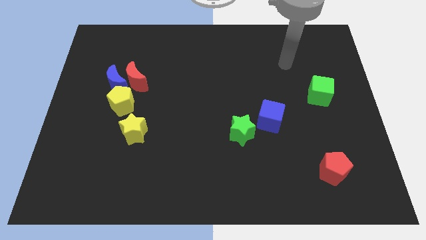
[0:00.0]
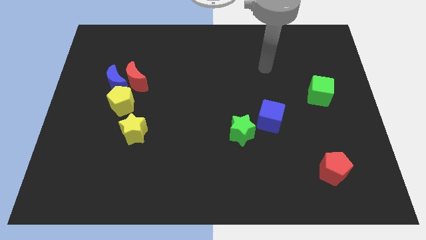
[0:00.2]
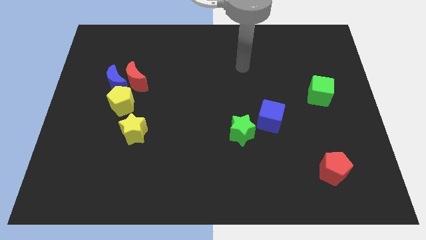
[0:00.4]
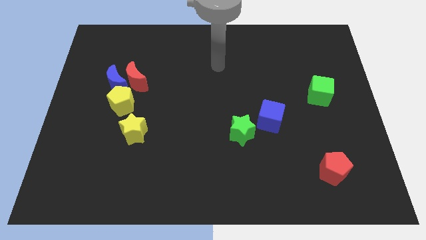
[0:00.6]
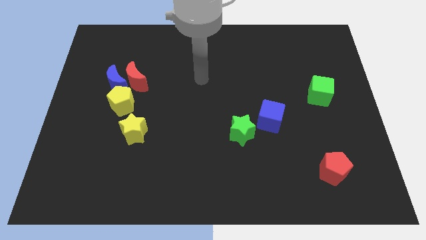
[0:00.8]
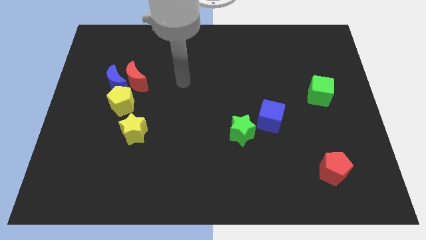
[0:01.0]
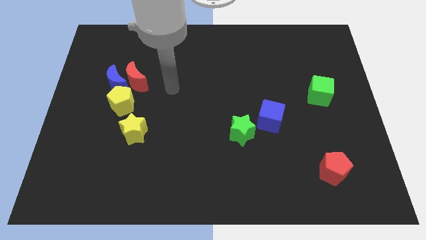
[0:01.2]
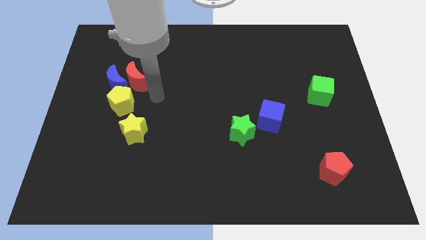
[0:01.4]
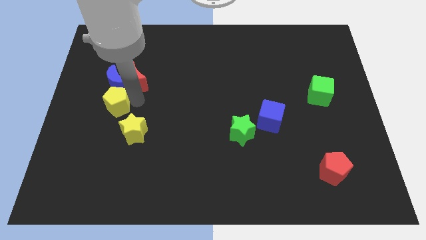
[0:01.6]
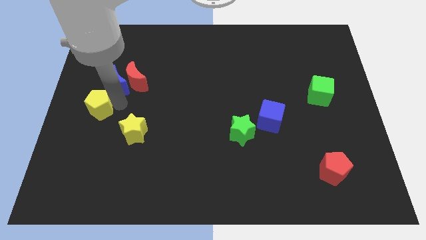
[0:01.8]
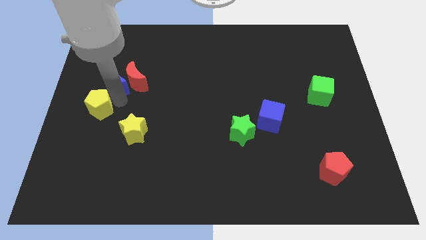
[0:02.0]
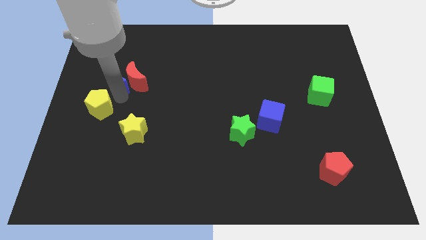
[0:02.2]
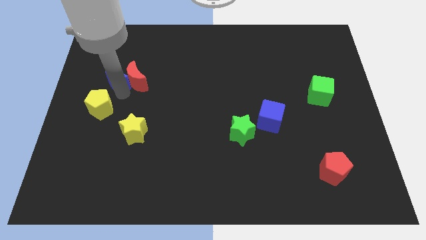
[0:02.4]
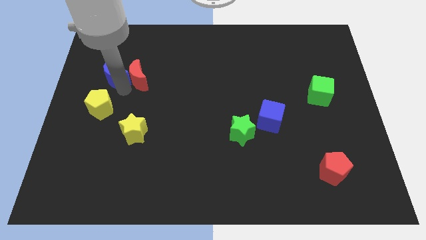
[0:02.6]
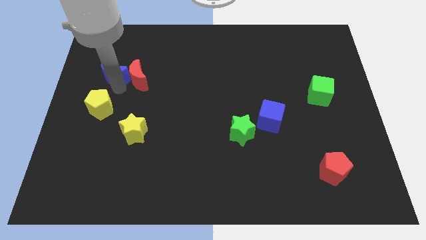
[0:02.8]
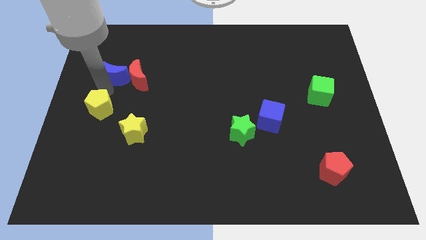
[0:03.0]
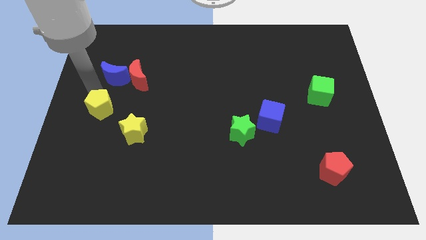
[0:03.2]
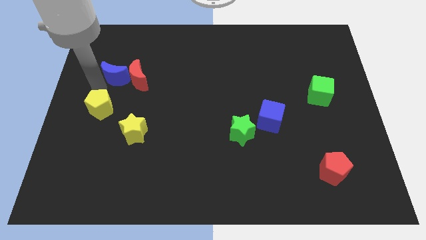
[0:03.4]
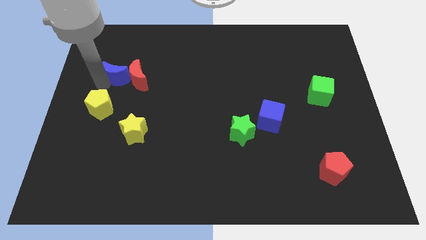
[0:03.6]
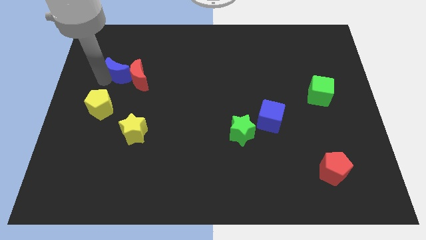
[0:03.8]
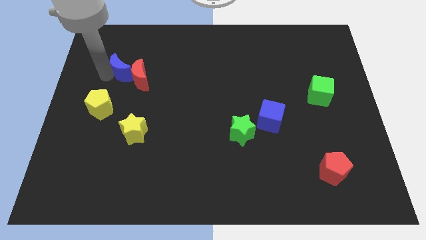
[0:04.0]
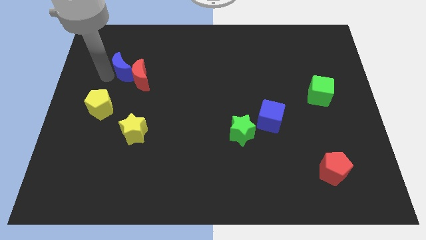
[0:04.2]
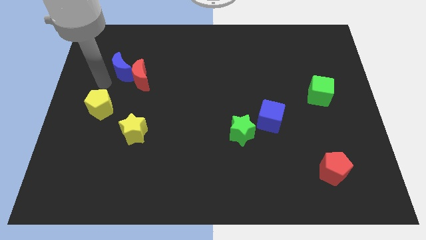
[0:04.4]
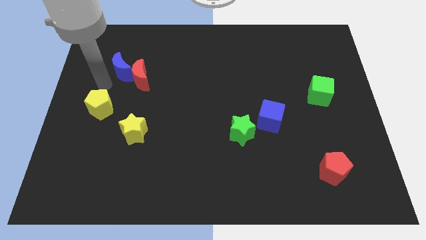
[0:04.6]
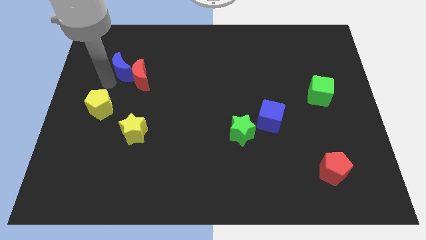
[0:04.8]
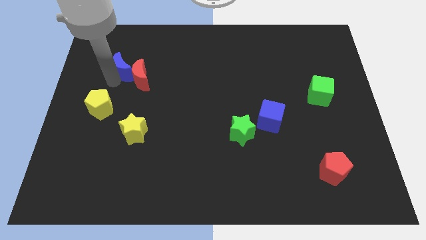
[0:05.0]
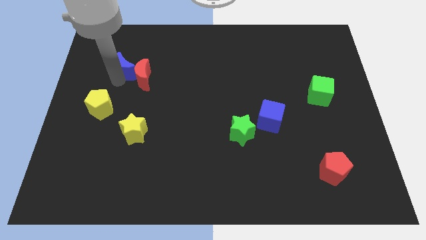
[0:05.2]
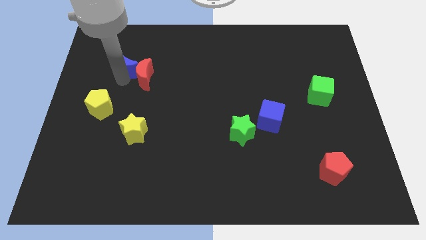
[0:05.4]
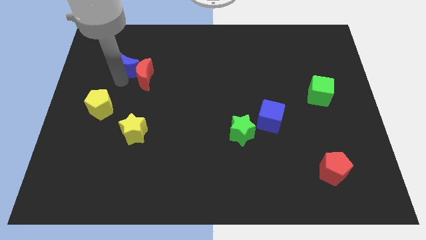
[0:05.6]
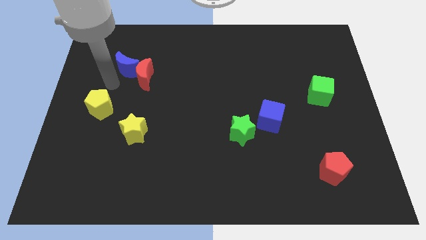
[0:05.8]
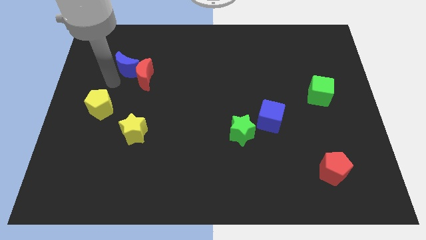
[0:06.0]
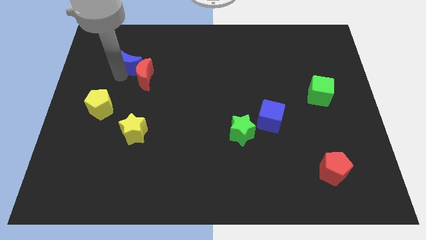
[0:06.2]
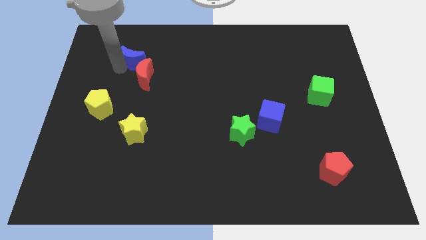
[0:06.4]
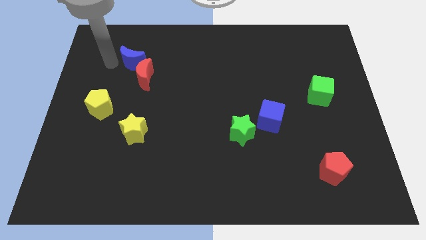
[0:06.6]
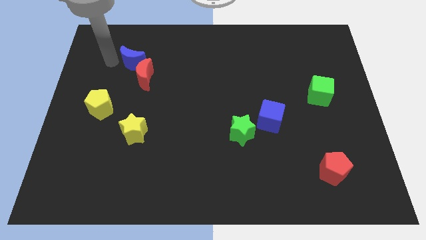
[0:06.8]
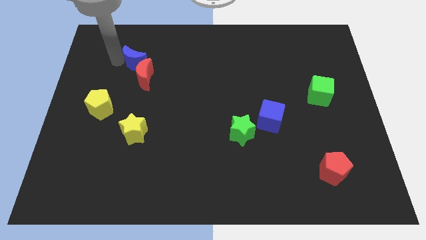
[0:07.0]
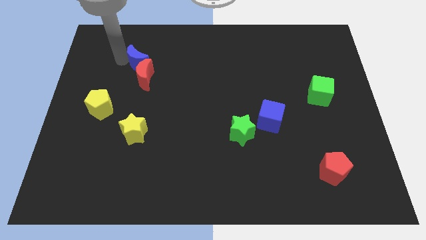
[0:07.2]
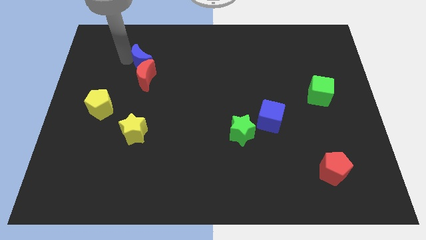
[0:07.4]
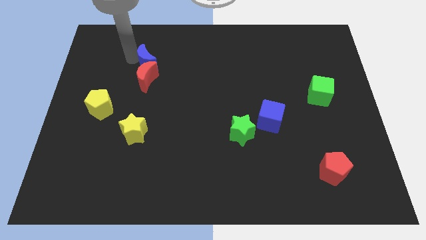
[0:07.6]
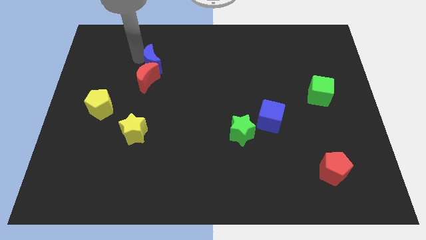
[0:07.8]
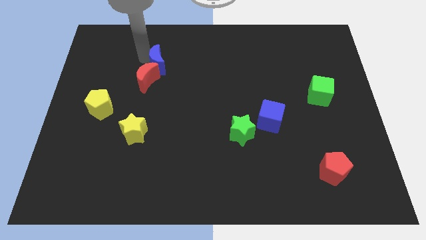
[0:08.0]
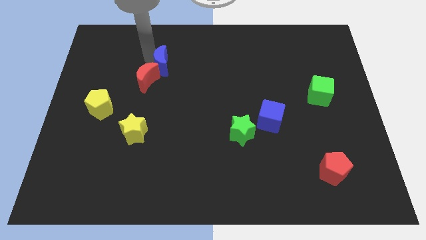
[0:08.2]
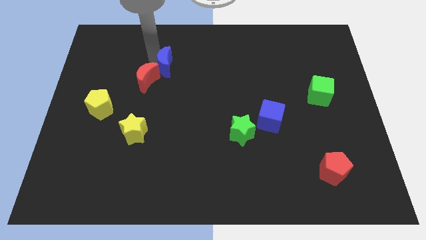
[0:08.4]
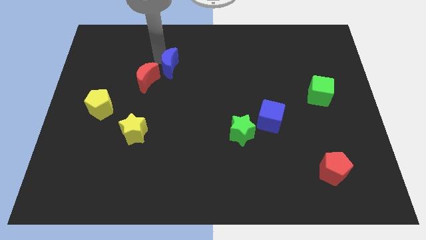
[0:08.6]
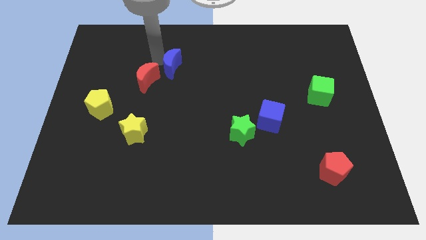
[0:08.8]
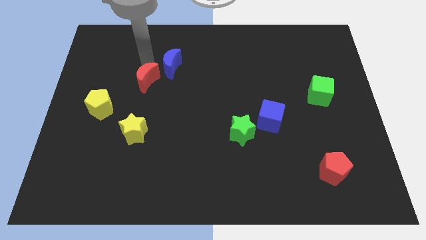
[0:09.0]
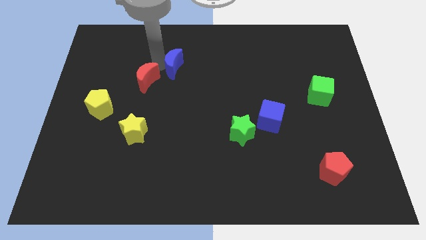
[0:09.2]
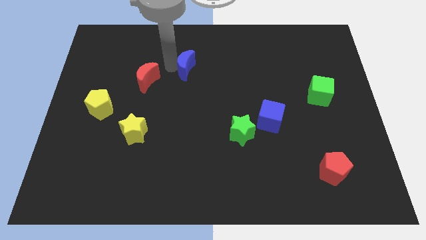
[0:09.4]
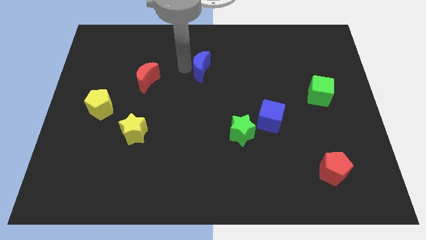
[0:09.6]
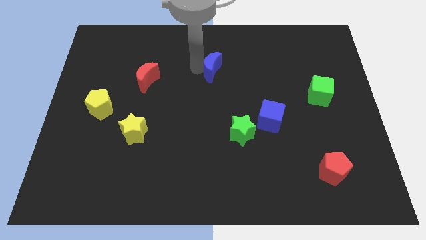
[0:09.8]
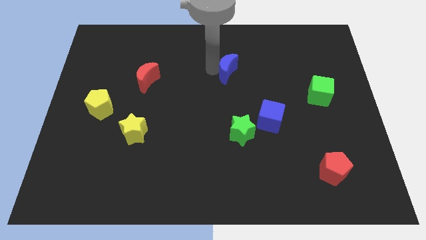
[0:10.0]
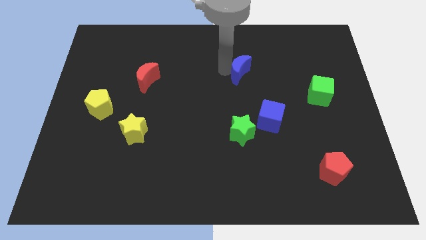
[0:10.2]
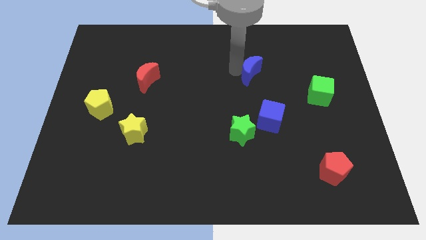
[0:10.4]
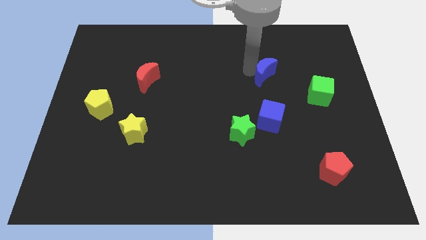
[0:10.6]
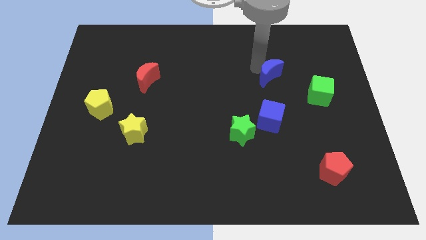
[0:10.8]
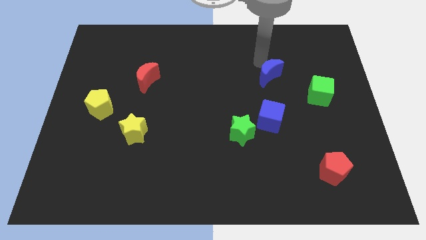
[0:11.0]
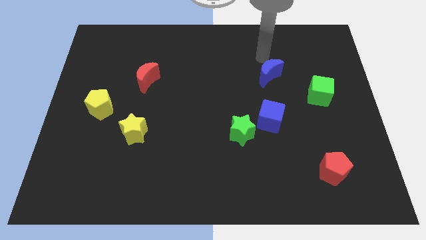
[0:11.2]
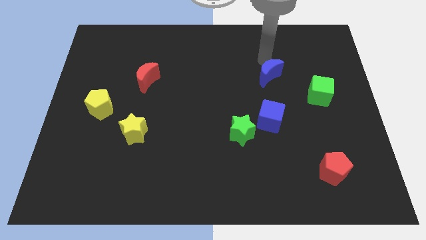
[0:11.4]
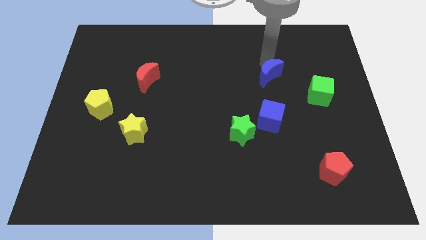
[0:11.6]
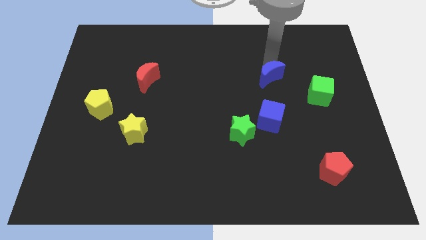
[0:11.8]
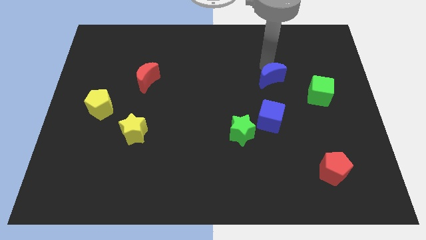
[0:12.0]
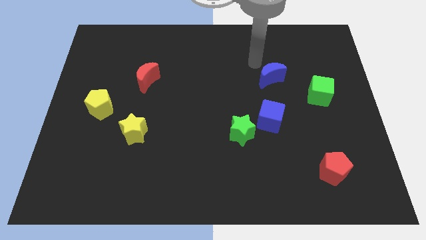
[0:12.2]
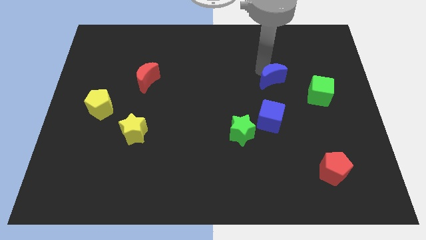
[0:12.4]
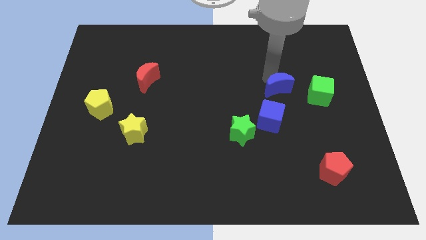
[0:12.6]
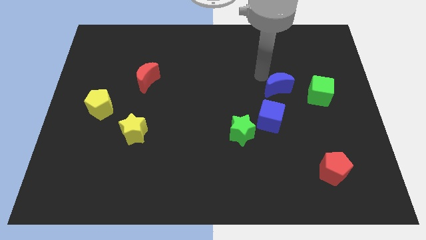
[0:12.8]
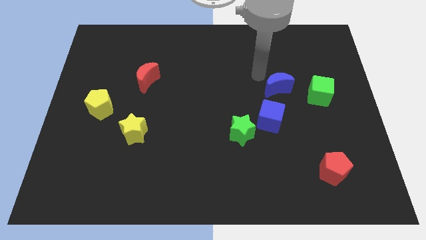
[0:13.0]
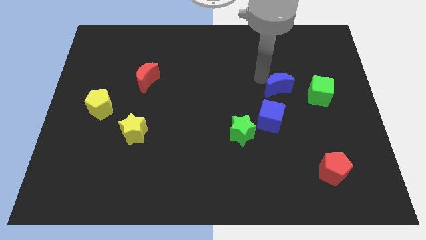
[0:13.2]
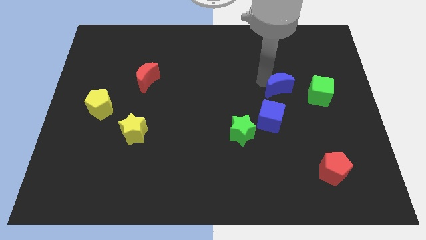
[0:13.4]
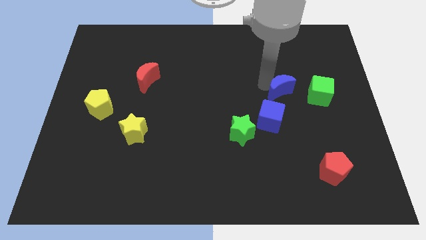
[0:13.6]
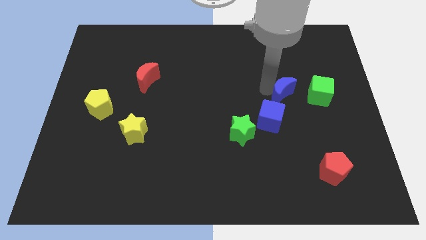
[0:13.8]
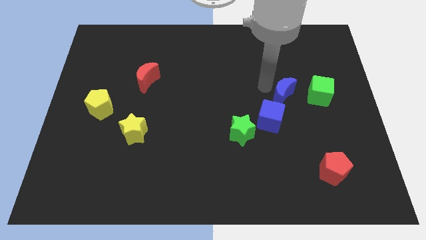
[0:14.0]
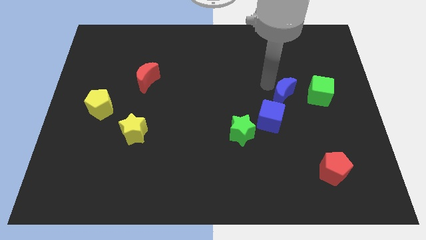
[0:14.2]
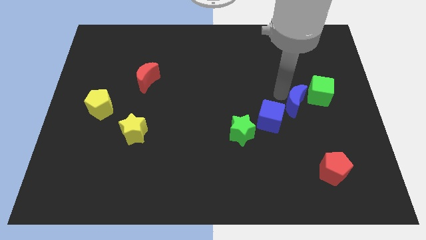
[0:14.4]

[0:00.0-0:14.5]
slide the blue moon right of the blue cube
